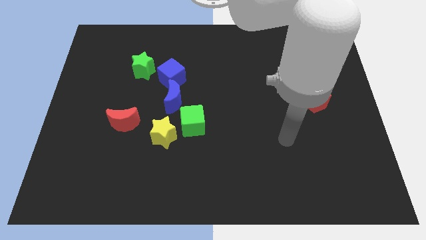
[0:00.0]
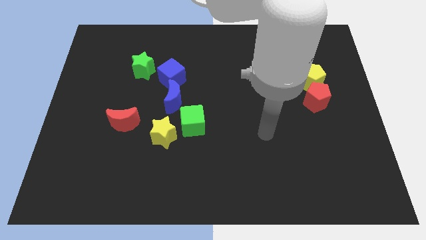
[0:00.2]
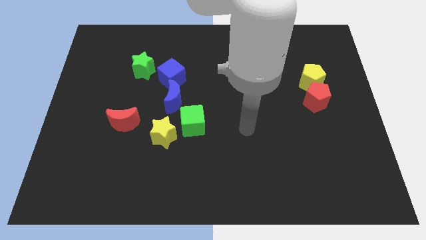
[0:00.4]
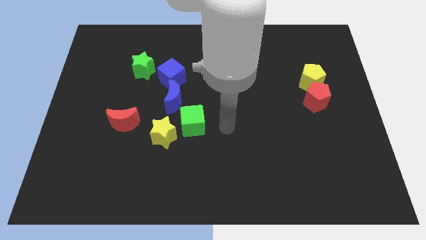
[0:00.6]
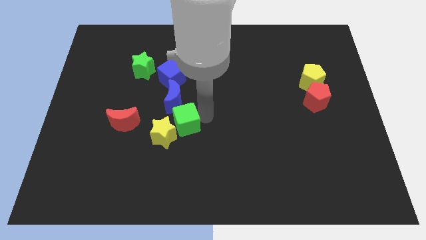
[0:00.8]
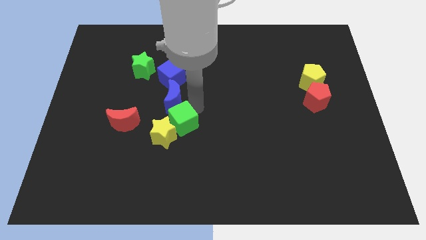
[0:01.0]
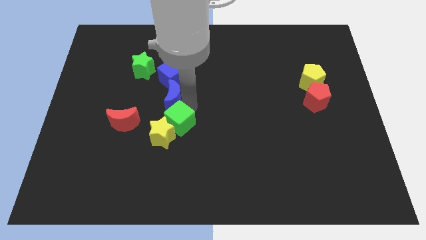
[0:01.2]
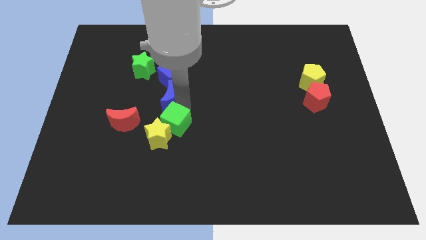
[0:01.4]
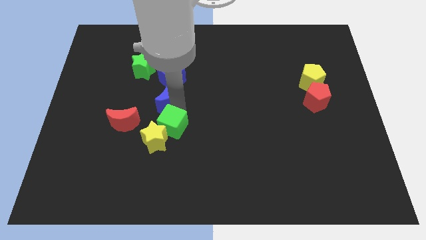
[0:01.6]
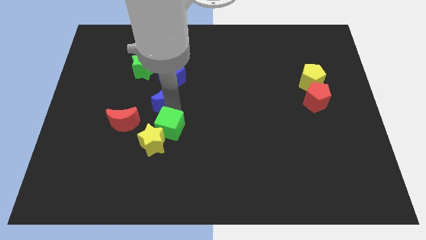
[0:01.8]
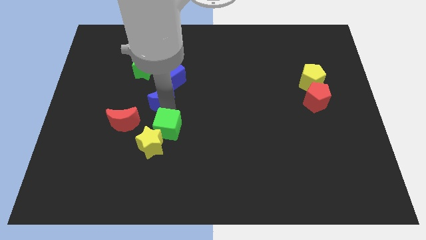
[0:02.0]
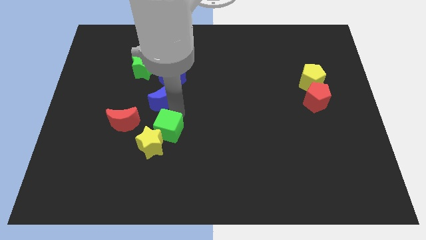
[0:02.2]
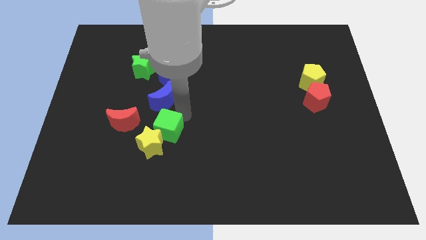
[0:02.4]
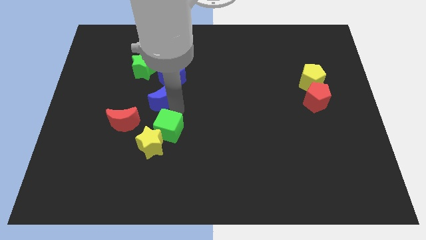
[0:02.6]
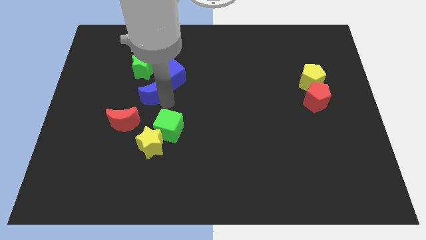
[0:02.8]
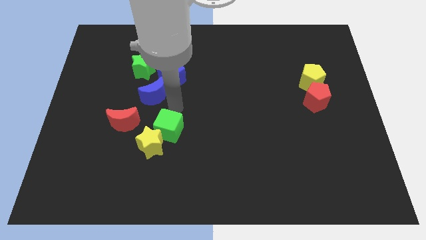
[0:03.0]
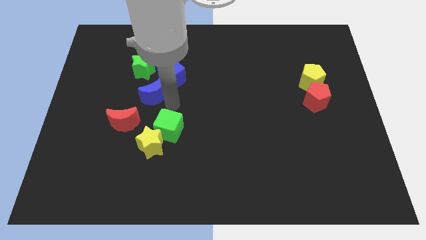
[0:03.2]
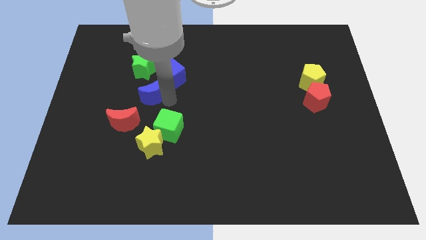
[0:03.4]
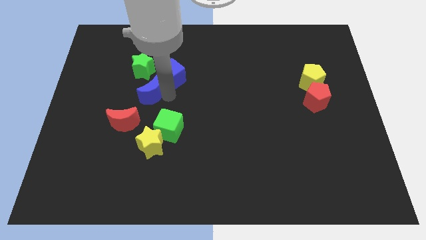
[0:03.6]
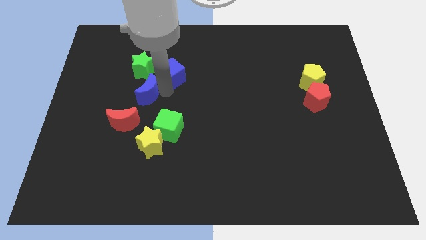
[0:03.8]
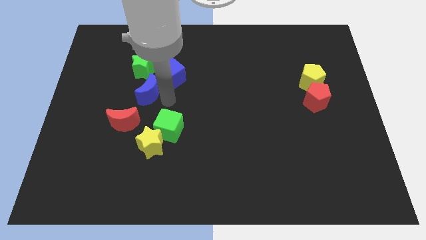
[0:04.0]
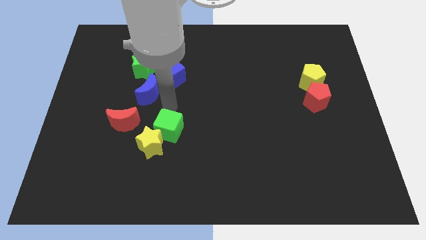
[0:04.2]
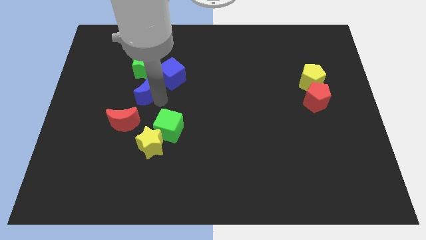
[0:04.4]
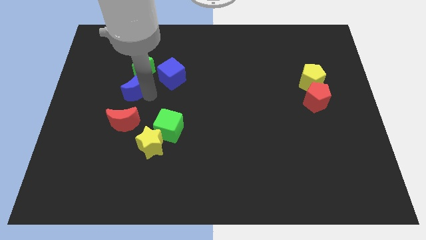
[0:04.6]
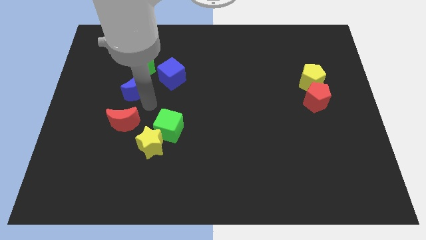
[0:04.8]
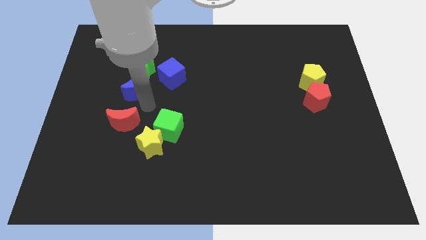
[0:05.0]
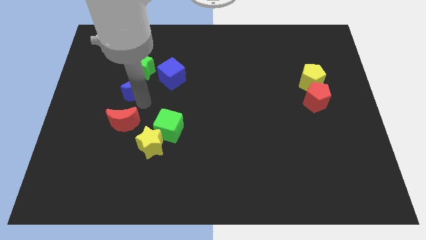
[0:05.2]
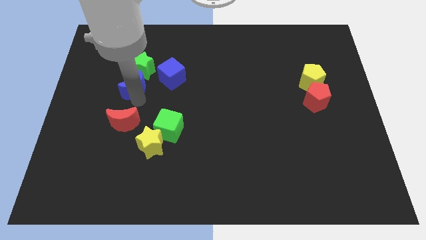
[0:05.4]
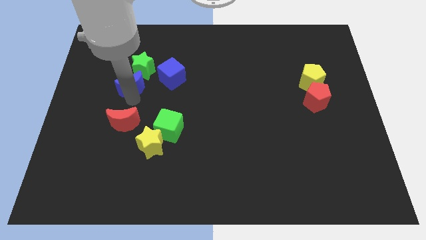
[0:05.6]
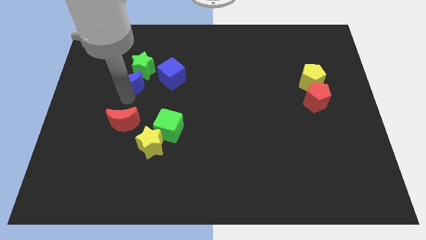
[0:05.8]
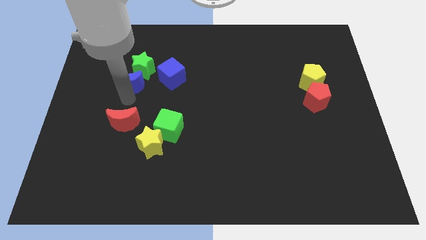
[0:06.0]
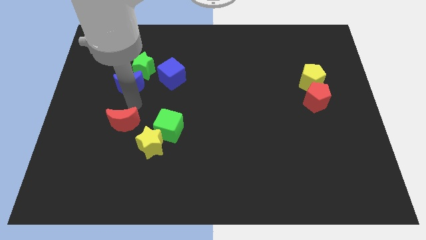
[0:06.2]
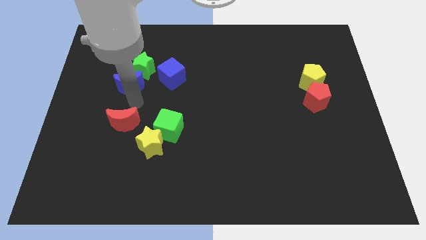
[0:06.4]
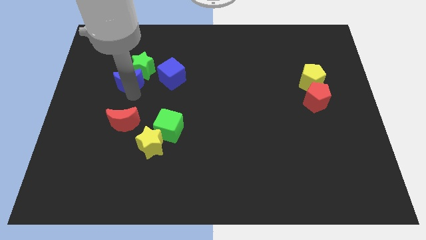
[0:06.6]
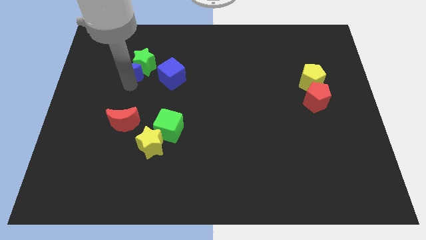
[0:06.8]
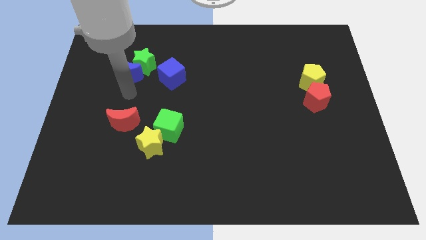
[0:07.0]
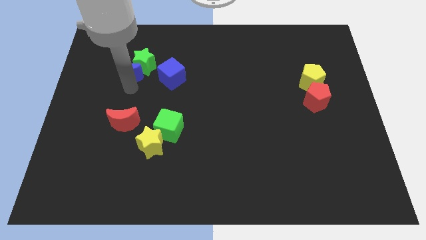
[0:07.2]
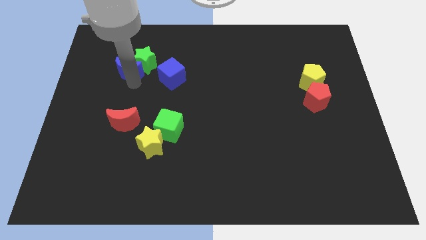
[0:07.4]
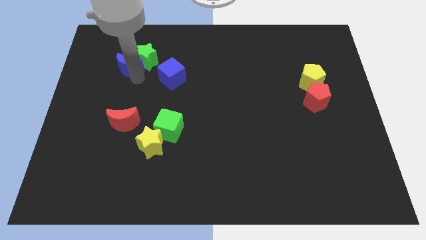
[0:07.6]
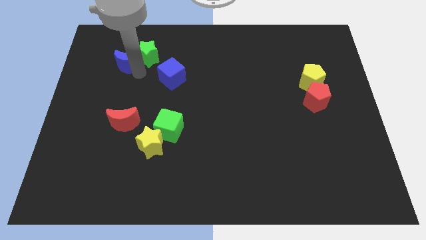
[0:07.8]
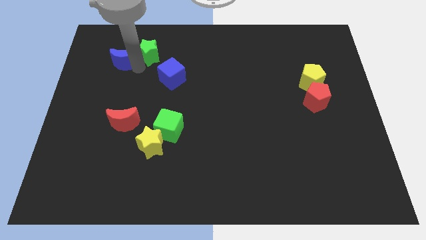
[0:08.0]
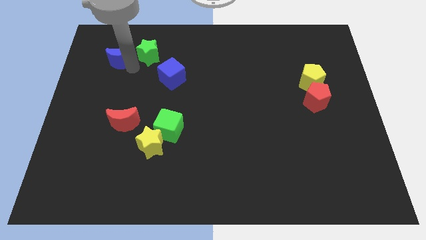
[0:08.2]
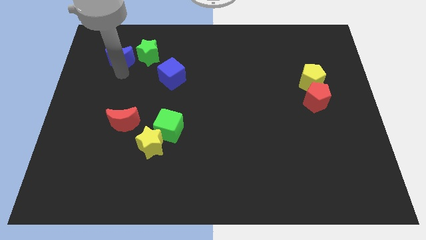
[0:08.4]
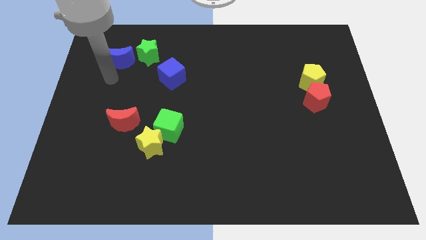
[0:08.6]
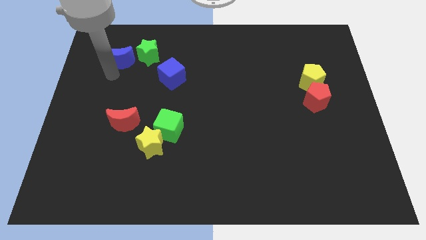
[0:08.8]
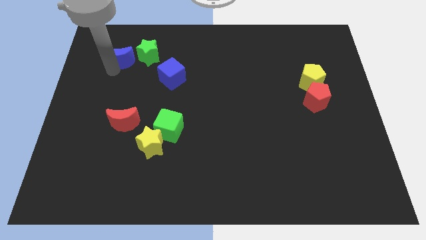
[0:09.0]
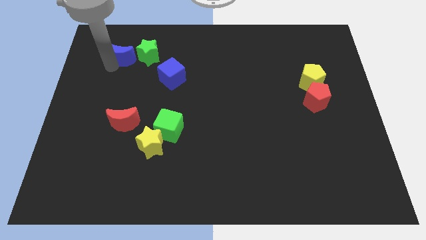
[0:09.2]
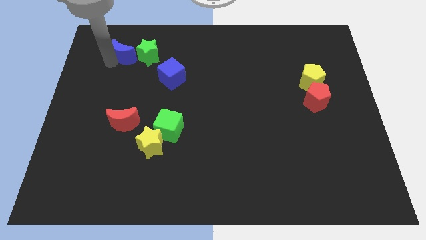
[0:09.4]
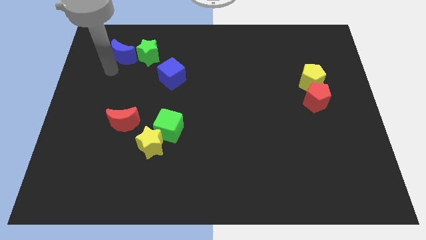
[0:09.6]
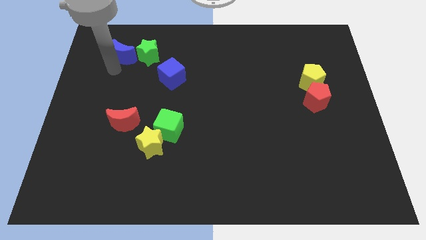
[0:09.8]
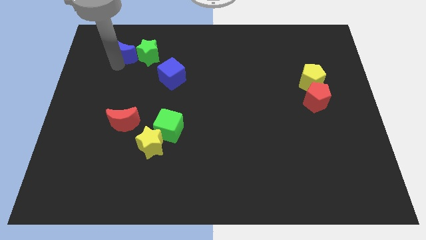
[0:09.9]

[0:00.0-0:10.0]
push the blue moon diagonally up and to the left of the green star

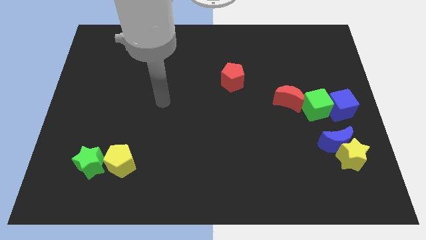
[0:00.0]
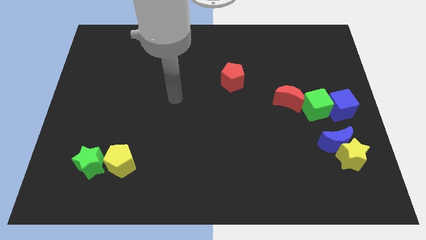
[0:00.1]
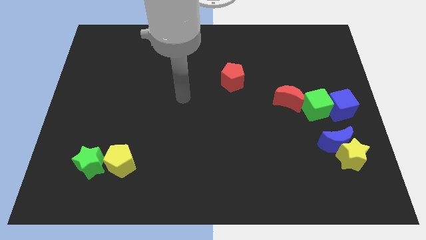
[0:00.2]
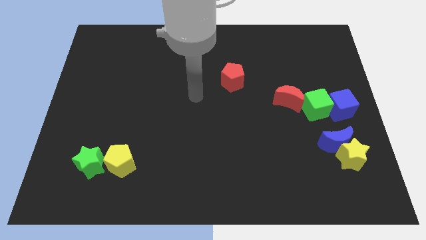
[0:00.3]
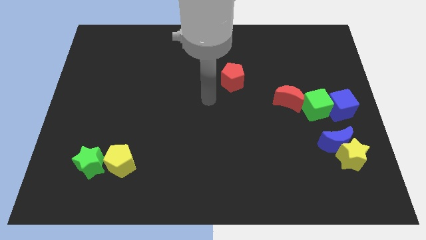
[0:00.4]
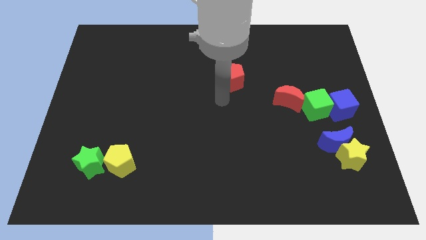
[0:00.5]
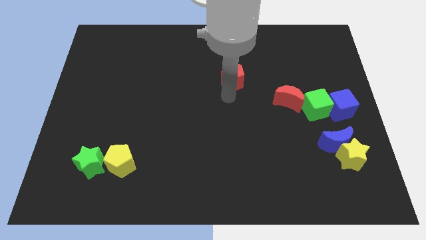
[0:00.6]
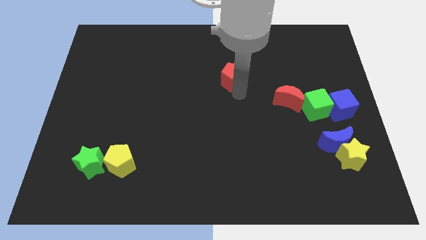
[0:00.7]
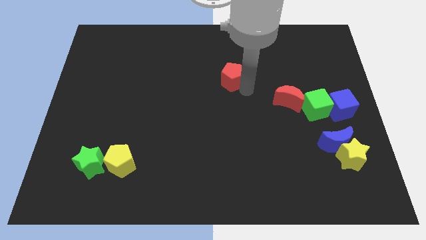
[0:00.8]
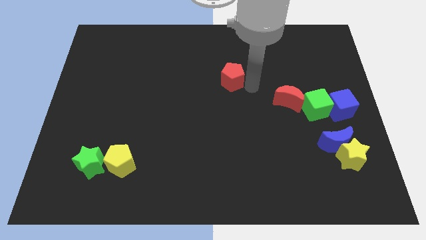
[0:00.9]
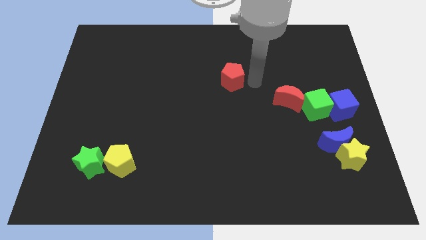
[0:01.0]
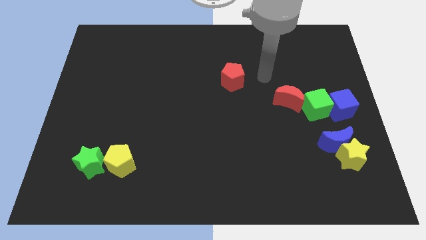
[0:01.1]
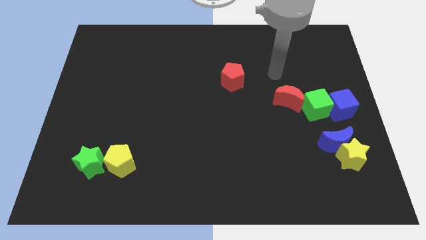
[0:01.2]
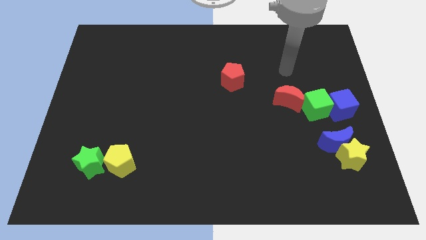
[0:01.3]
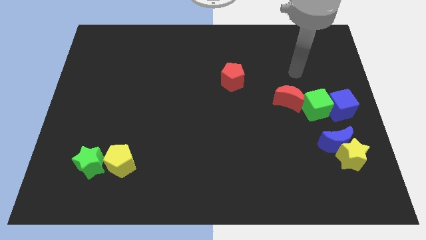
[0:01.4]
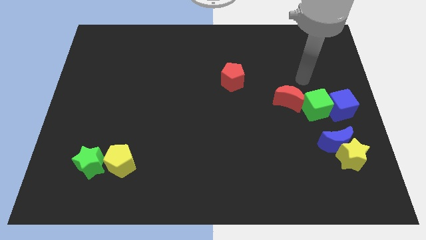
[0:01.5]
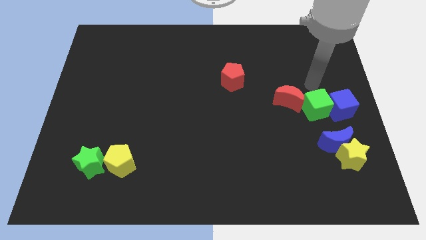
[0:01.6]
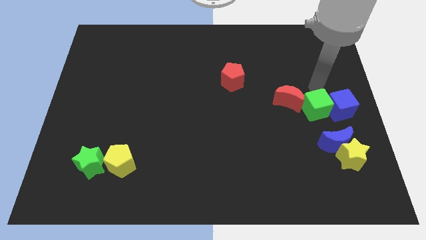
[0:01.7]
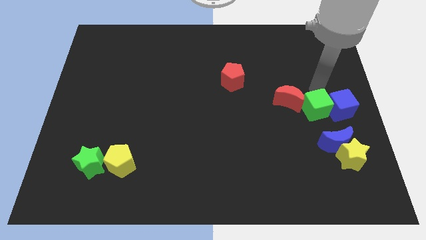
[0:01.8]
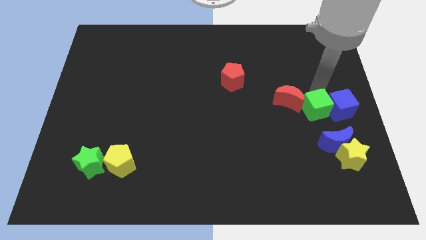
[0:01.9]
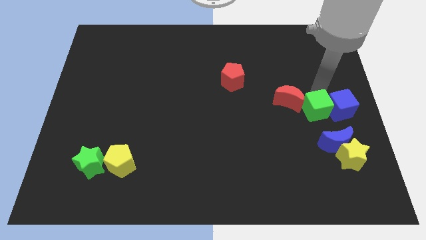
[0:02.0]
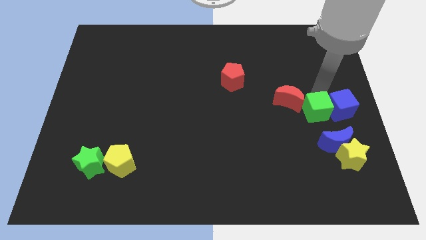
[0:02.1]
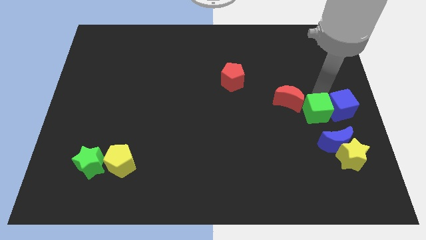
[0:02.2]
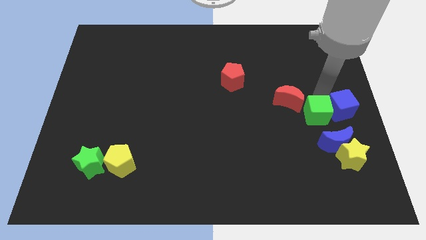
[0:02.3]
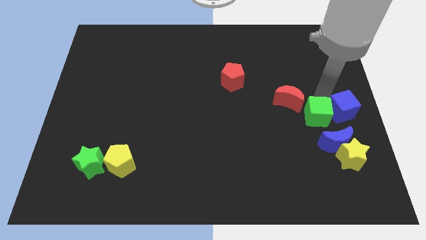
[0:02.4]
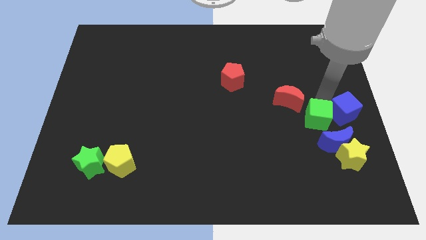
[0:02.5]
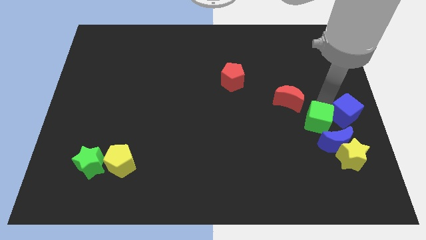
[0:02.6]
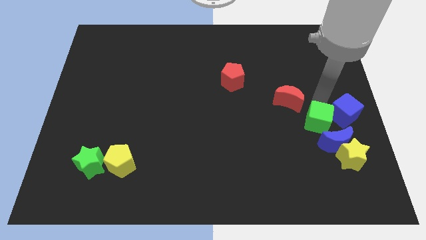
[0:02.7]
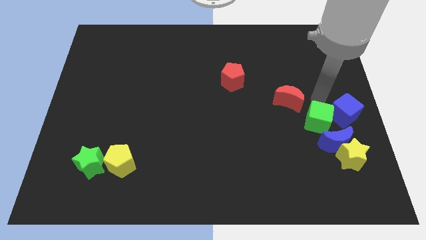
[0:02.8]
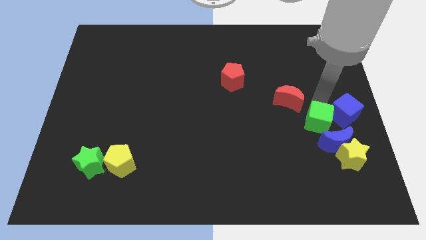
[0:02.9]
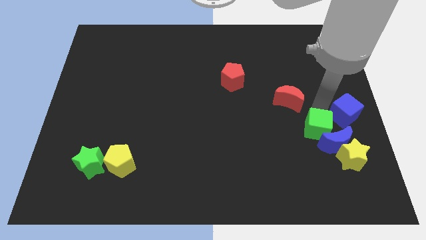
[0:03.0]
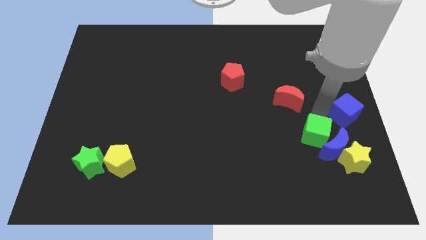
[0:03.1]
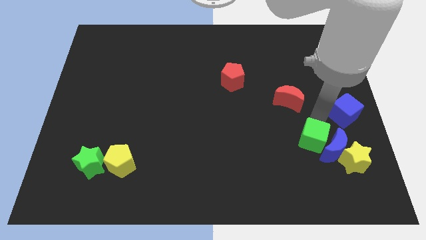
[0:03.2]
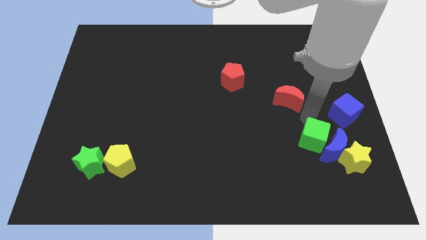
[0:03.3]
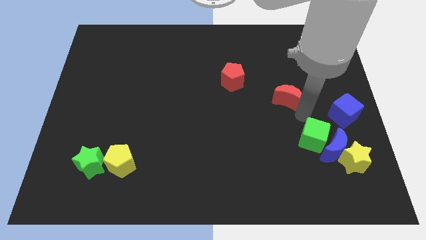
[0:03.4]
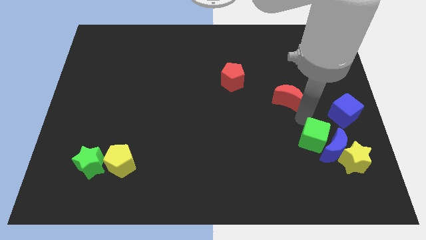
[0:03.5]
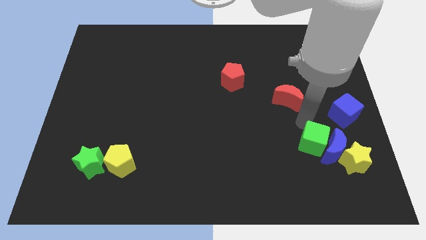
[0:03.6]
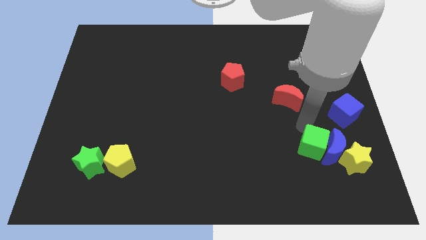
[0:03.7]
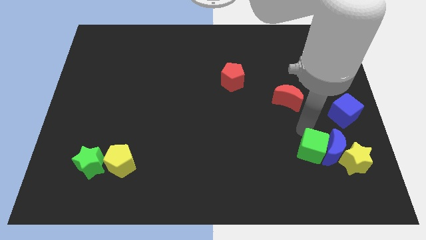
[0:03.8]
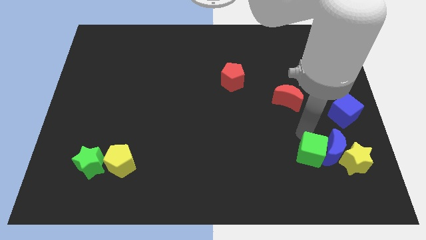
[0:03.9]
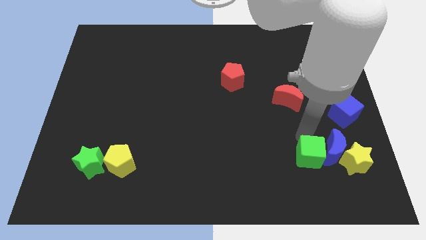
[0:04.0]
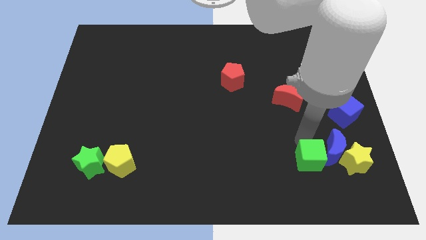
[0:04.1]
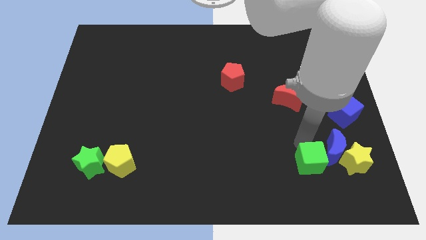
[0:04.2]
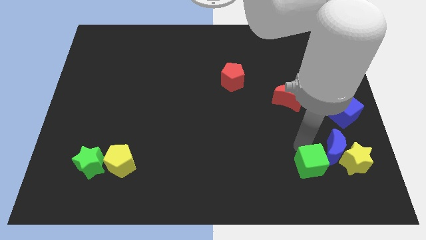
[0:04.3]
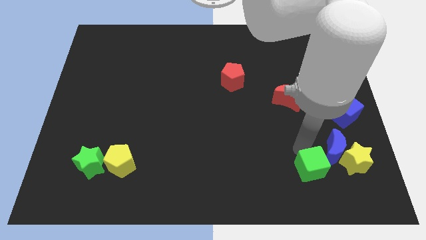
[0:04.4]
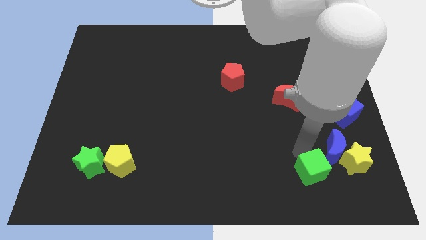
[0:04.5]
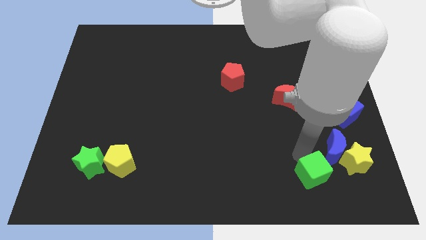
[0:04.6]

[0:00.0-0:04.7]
move the green cube diagonally down and to the left of the yellow star
